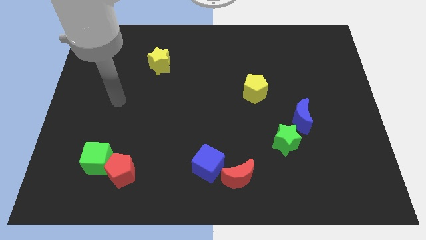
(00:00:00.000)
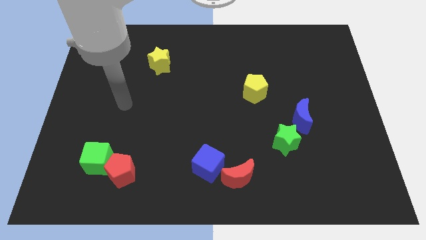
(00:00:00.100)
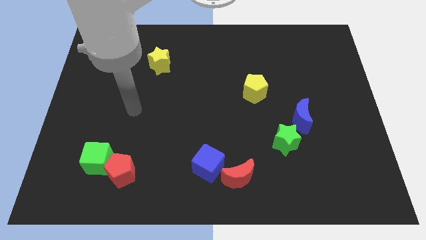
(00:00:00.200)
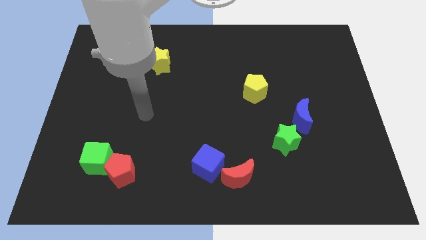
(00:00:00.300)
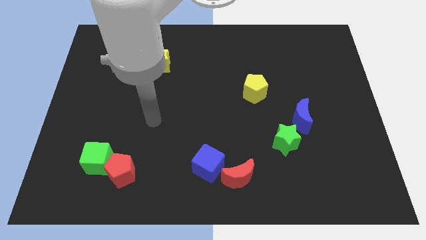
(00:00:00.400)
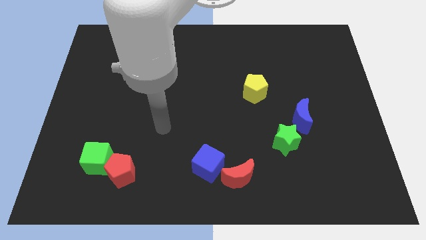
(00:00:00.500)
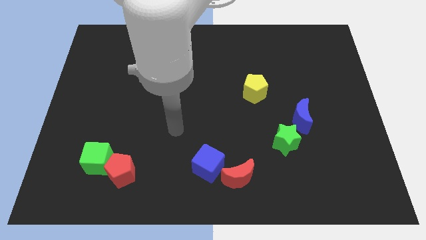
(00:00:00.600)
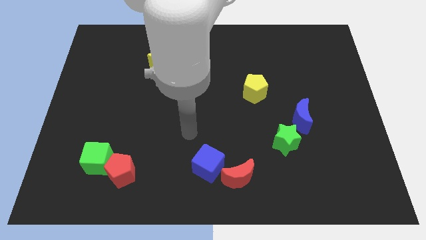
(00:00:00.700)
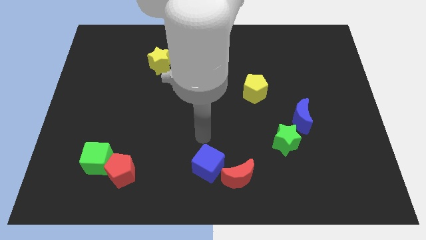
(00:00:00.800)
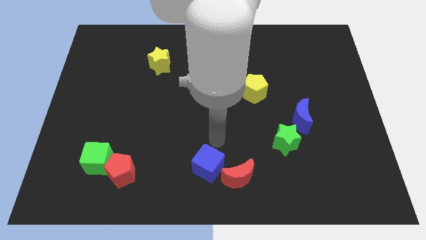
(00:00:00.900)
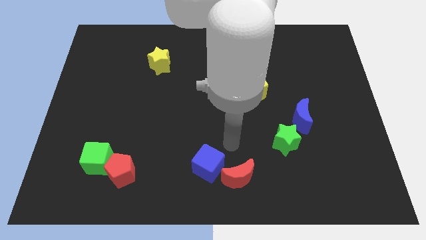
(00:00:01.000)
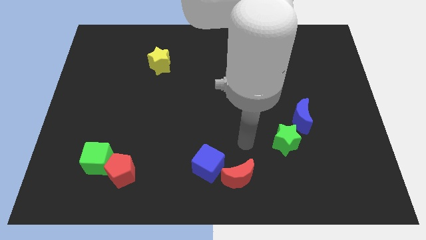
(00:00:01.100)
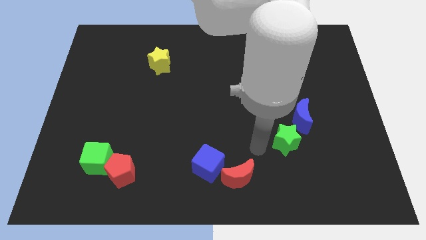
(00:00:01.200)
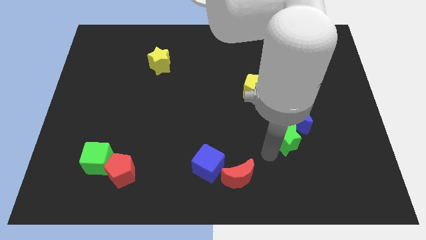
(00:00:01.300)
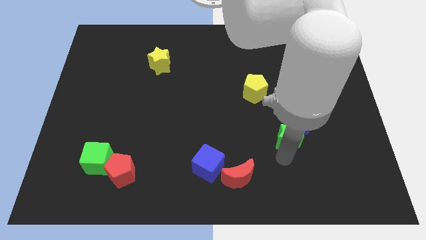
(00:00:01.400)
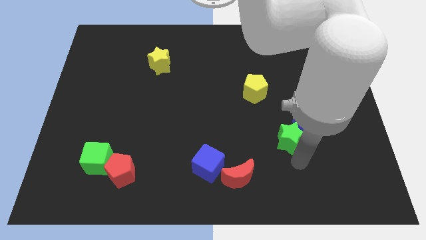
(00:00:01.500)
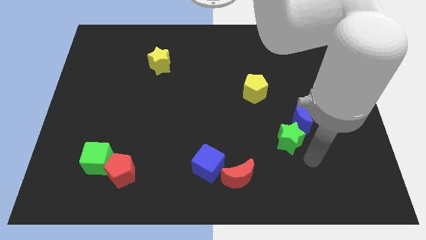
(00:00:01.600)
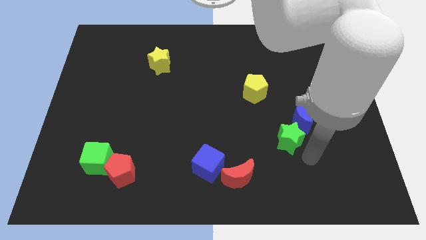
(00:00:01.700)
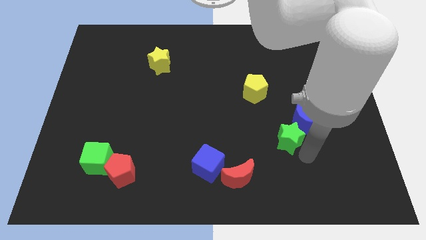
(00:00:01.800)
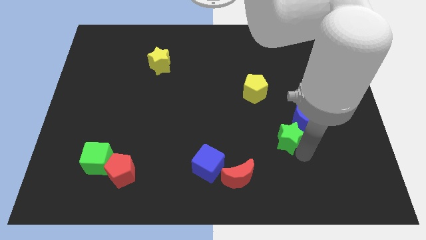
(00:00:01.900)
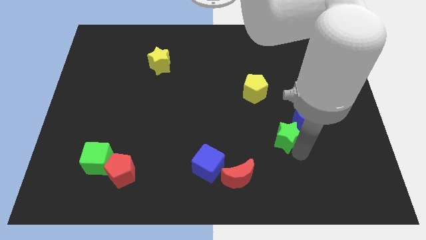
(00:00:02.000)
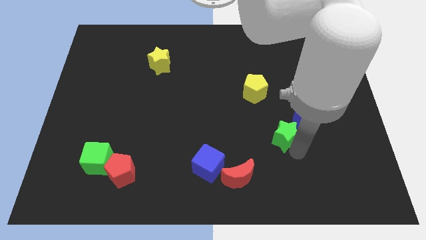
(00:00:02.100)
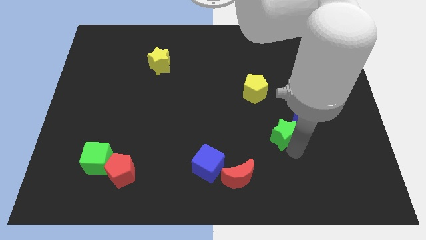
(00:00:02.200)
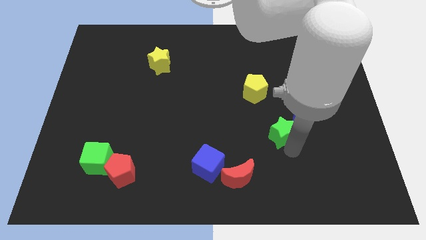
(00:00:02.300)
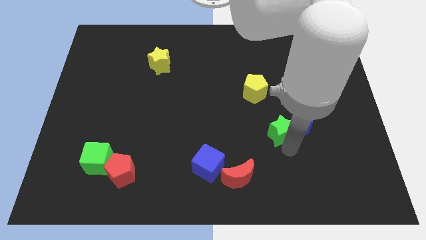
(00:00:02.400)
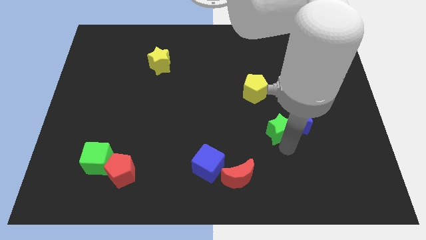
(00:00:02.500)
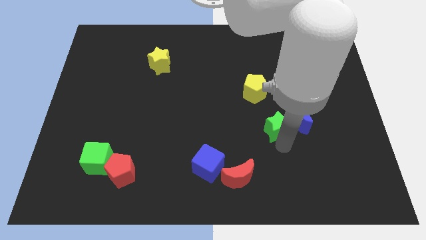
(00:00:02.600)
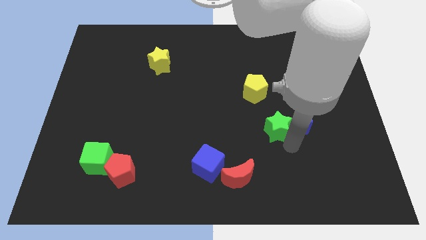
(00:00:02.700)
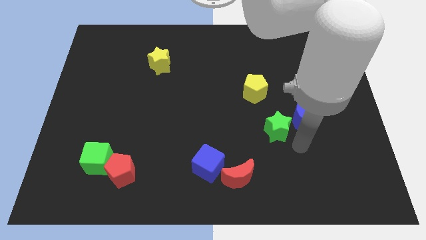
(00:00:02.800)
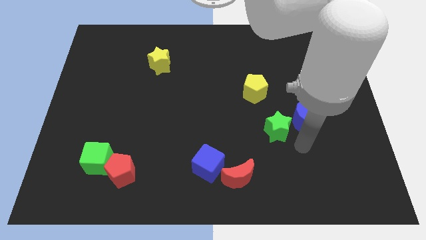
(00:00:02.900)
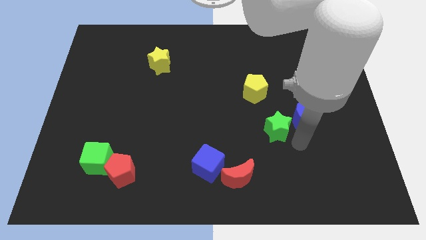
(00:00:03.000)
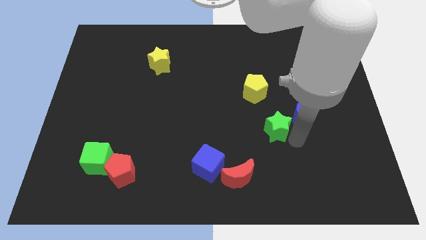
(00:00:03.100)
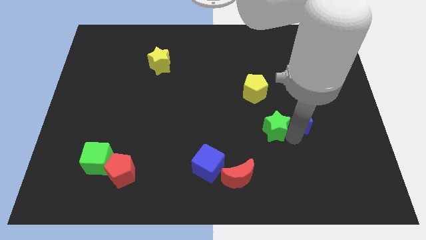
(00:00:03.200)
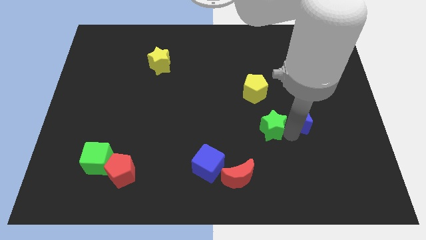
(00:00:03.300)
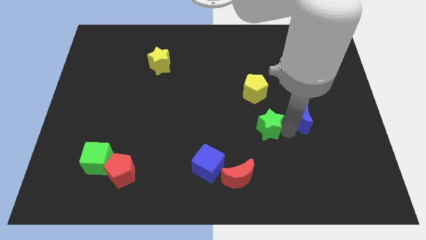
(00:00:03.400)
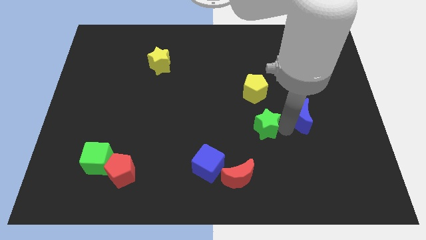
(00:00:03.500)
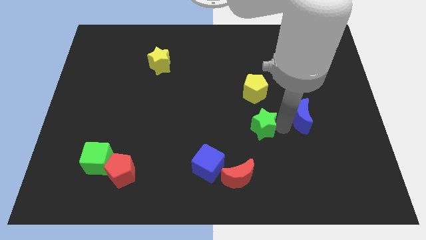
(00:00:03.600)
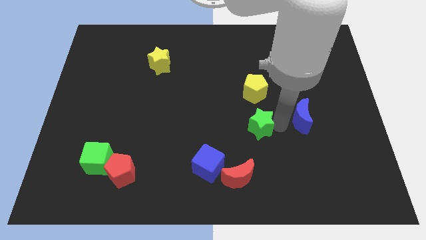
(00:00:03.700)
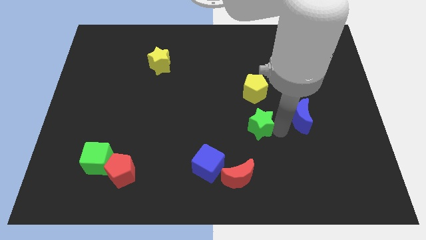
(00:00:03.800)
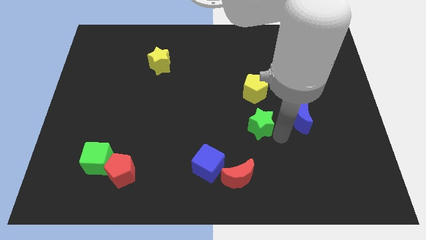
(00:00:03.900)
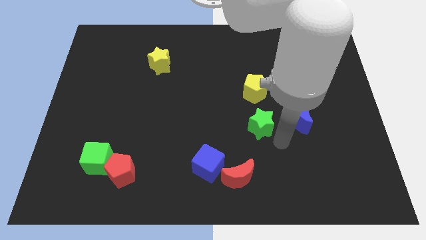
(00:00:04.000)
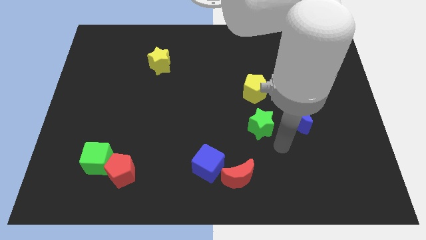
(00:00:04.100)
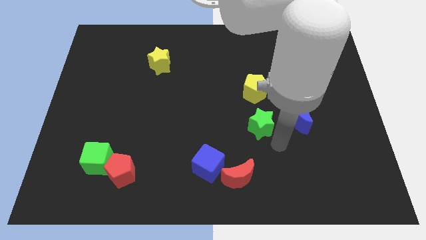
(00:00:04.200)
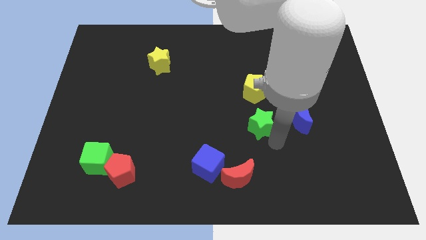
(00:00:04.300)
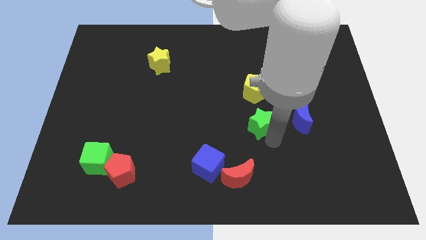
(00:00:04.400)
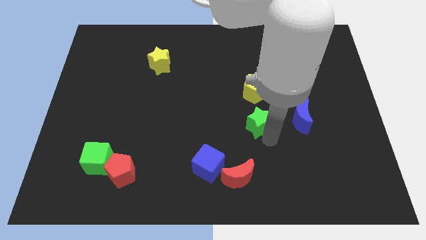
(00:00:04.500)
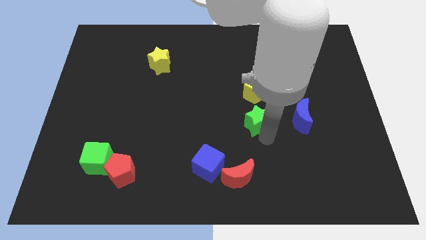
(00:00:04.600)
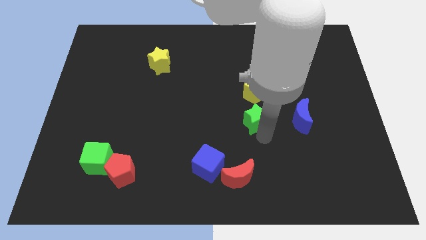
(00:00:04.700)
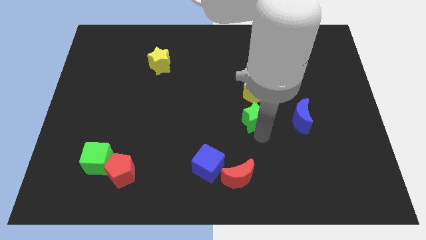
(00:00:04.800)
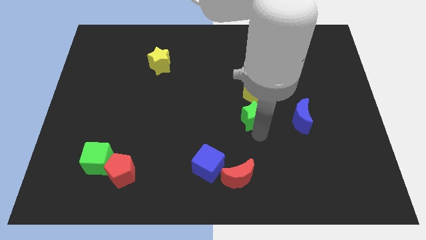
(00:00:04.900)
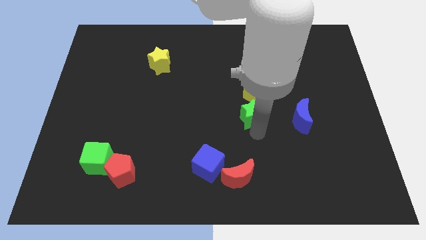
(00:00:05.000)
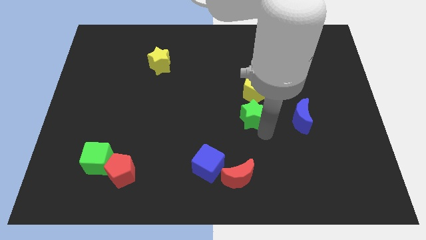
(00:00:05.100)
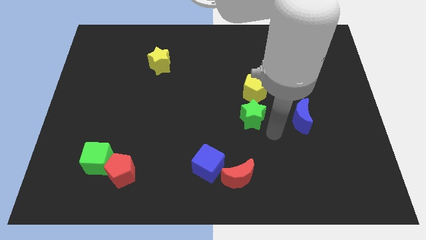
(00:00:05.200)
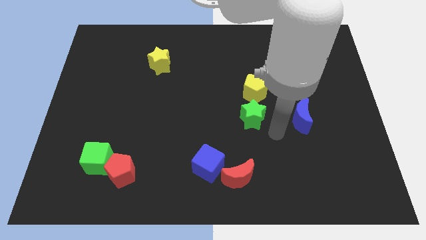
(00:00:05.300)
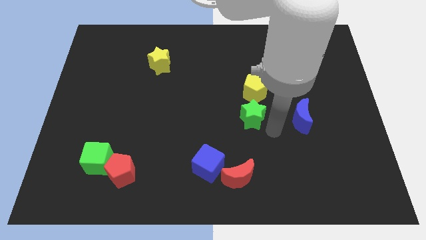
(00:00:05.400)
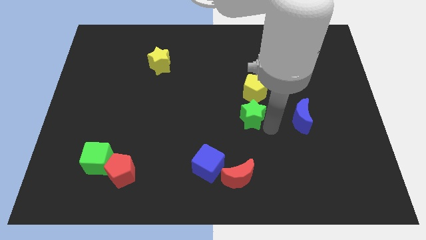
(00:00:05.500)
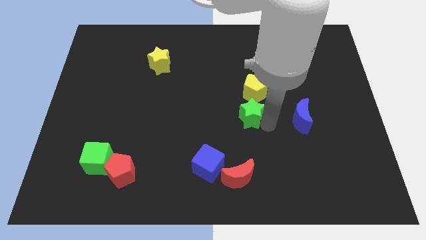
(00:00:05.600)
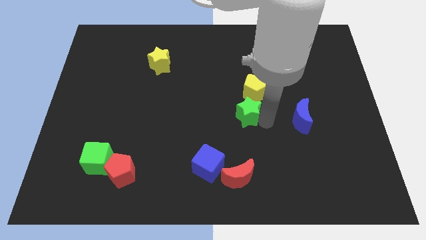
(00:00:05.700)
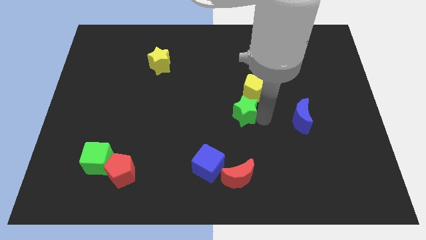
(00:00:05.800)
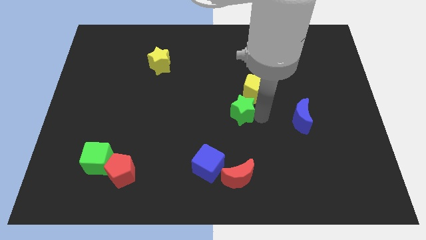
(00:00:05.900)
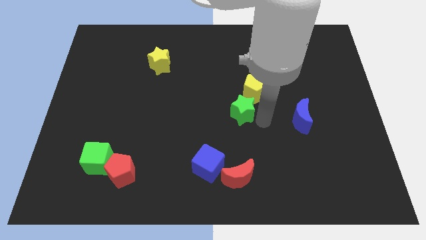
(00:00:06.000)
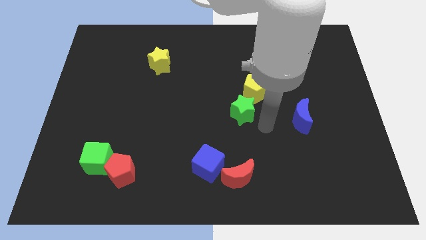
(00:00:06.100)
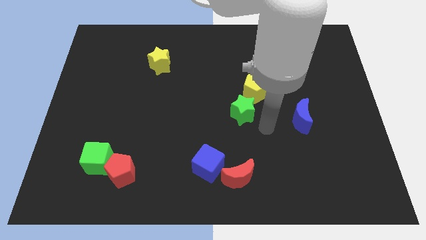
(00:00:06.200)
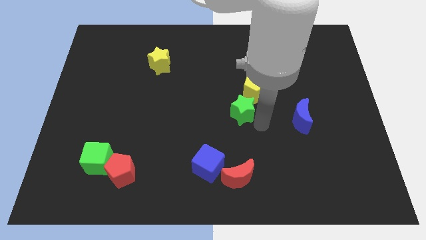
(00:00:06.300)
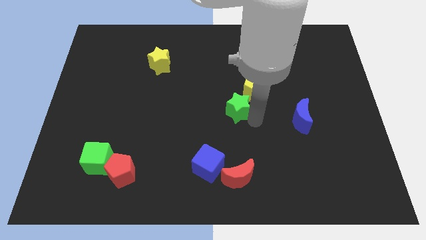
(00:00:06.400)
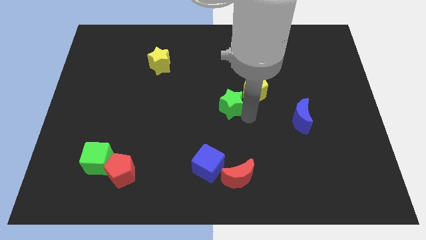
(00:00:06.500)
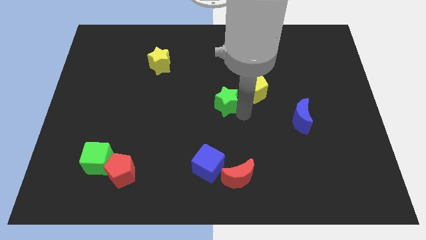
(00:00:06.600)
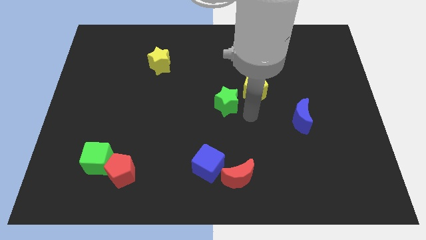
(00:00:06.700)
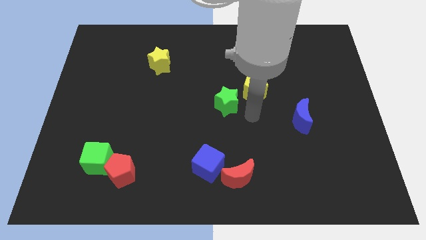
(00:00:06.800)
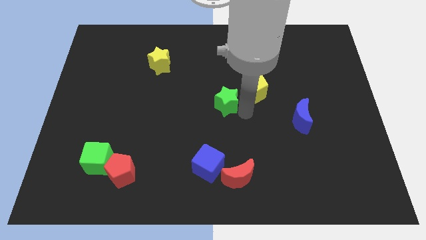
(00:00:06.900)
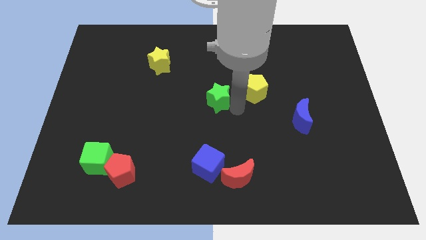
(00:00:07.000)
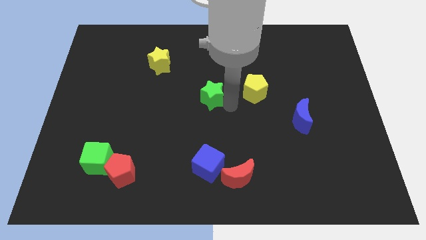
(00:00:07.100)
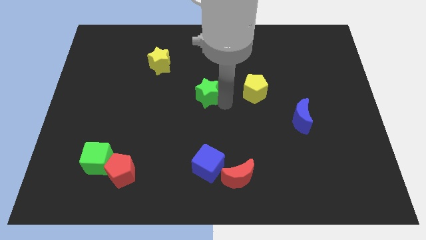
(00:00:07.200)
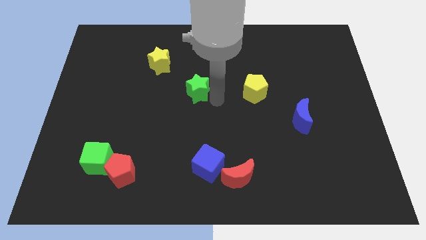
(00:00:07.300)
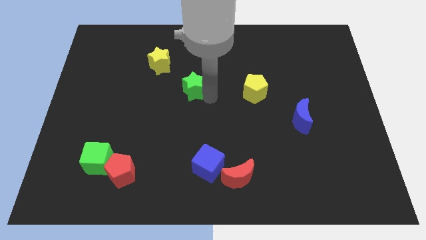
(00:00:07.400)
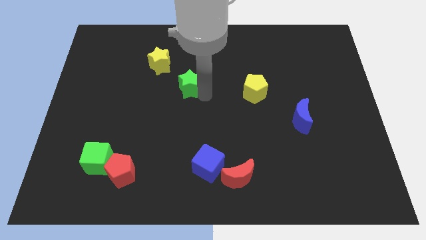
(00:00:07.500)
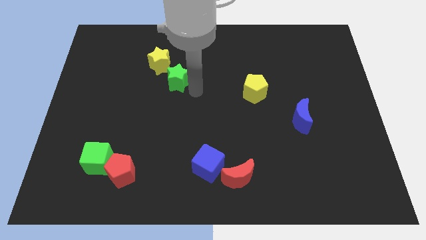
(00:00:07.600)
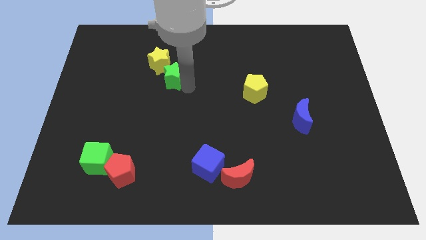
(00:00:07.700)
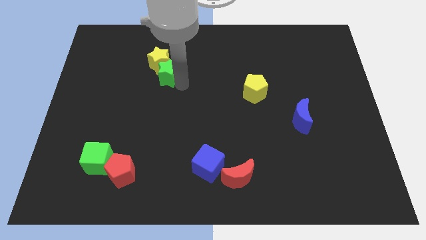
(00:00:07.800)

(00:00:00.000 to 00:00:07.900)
slide the green star to the yellow star
